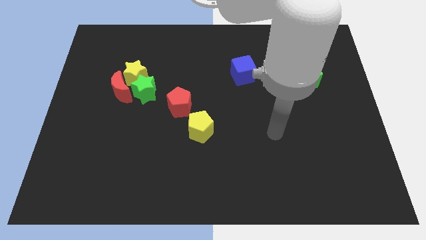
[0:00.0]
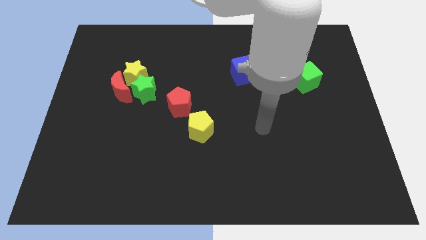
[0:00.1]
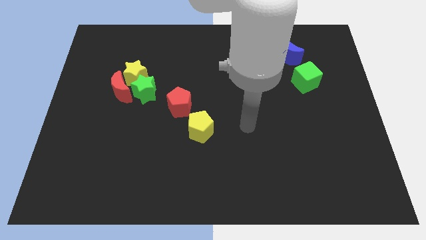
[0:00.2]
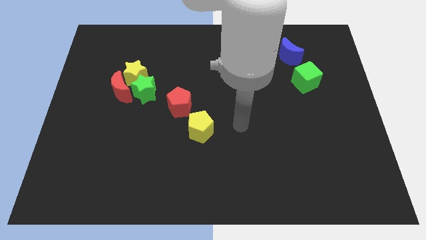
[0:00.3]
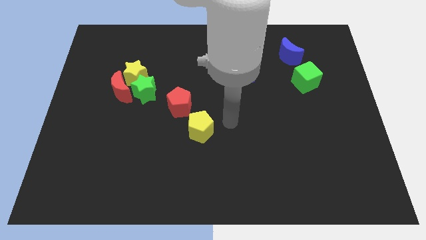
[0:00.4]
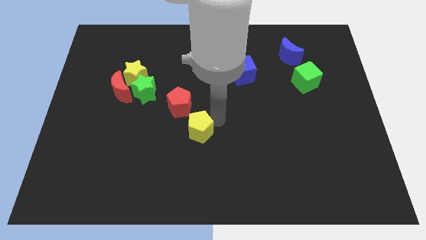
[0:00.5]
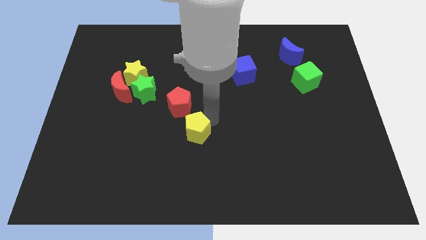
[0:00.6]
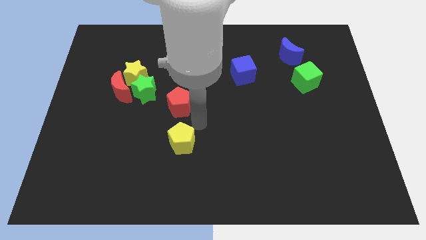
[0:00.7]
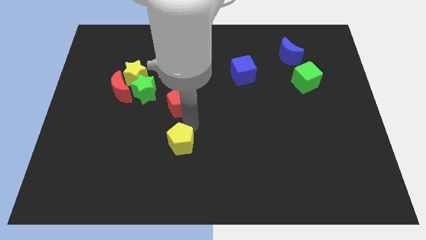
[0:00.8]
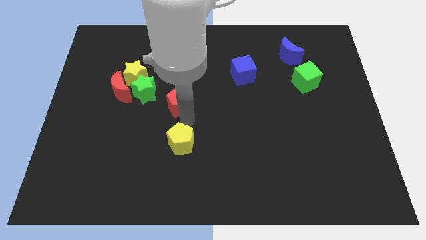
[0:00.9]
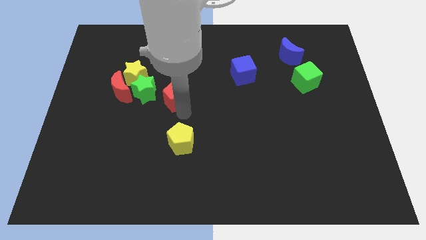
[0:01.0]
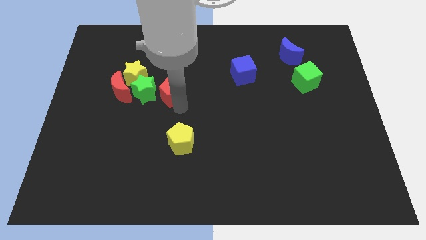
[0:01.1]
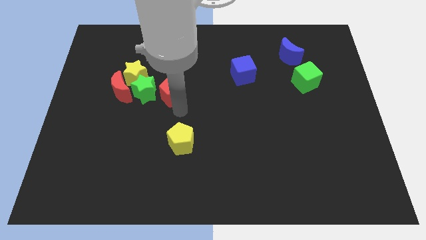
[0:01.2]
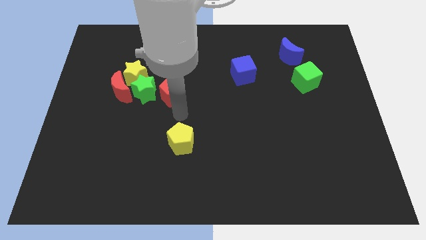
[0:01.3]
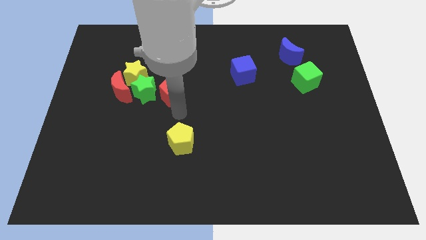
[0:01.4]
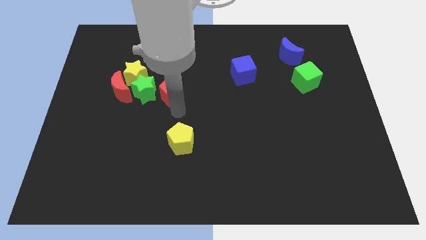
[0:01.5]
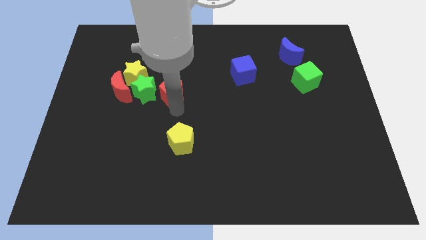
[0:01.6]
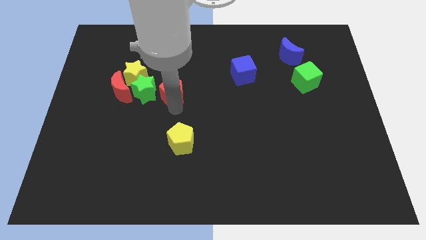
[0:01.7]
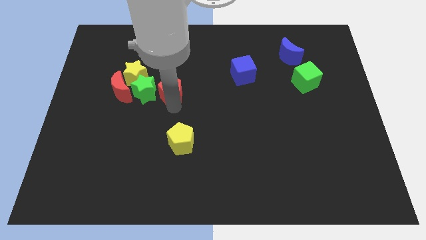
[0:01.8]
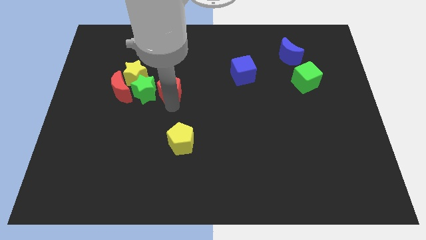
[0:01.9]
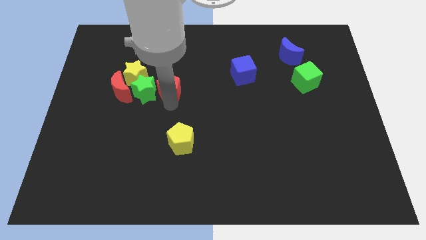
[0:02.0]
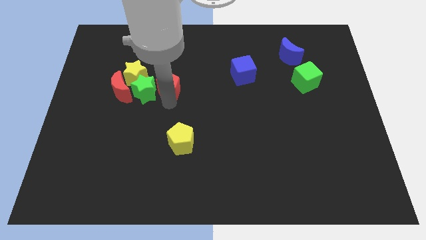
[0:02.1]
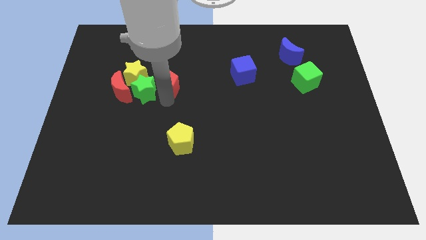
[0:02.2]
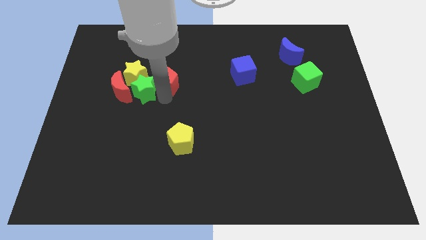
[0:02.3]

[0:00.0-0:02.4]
slightly move the red pentagon up and left

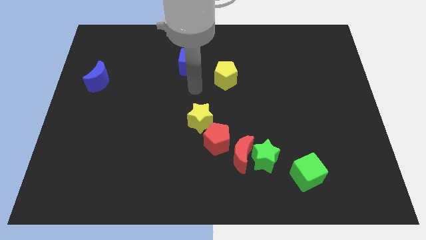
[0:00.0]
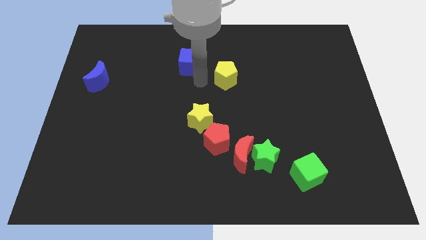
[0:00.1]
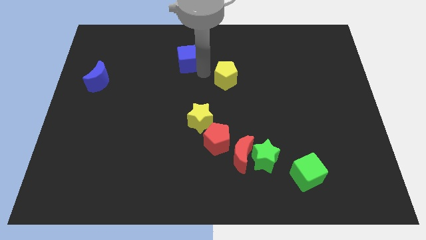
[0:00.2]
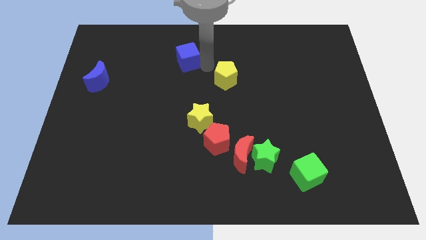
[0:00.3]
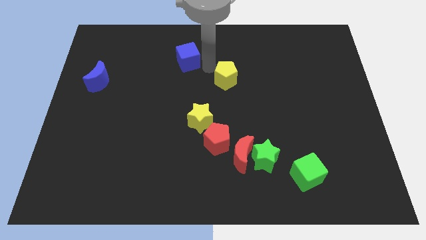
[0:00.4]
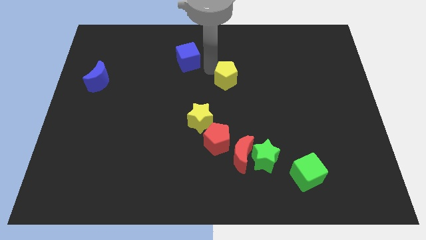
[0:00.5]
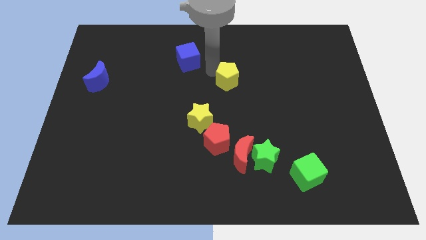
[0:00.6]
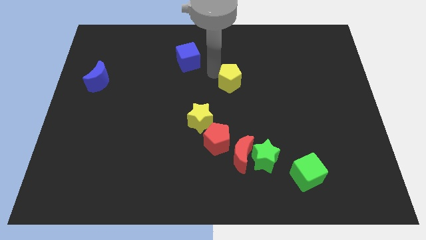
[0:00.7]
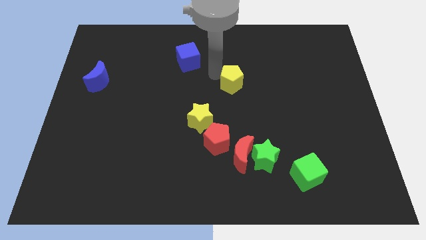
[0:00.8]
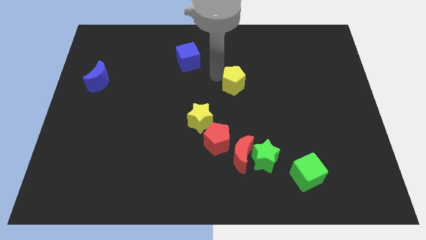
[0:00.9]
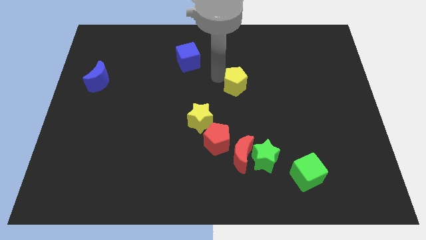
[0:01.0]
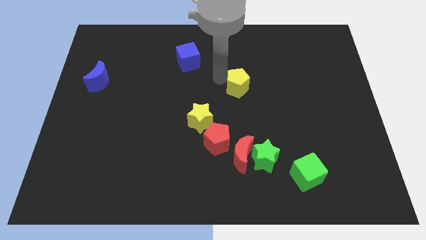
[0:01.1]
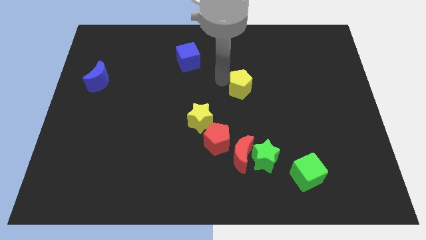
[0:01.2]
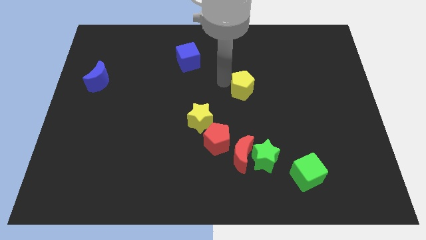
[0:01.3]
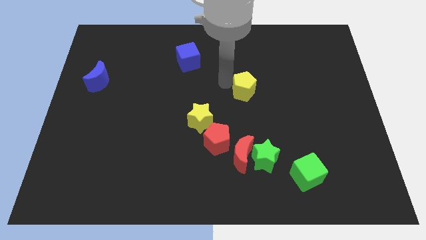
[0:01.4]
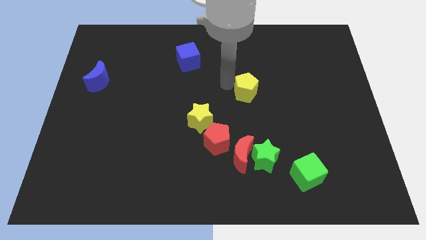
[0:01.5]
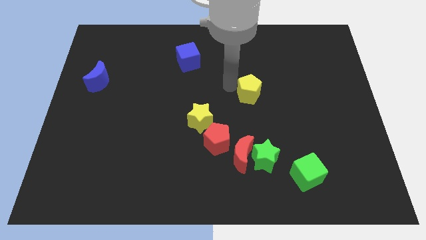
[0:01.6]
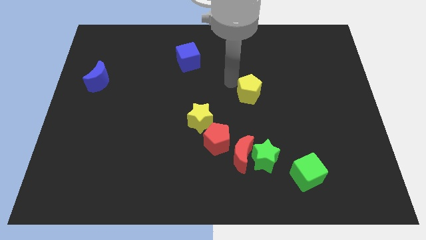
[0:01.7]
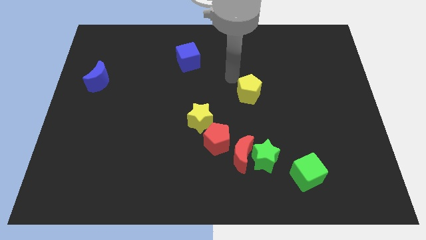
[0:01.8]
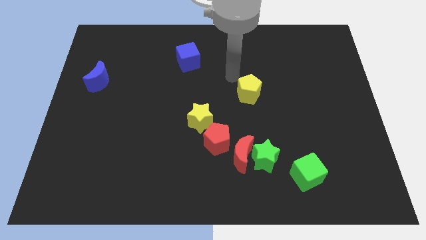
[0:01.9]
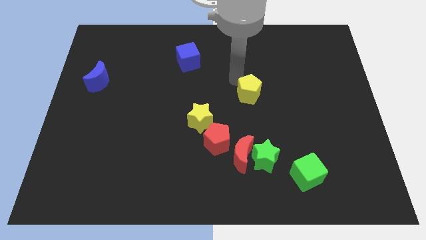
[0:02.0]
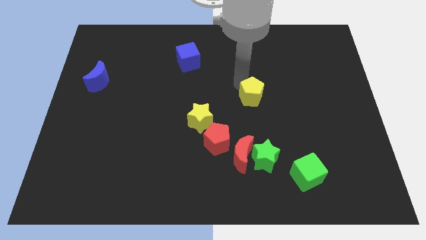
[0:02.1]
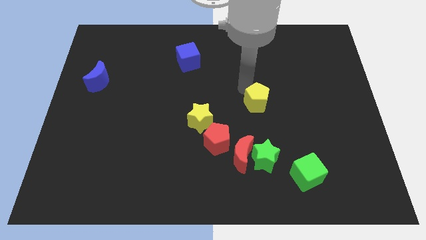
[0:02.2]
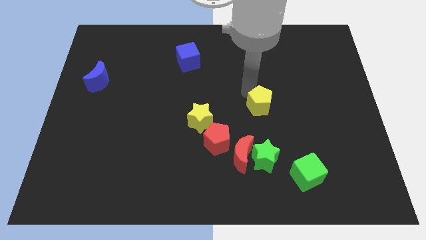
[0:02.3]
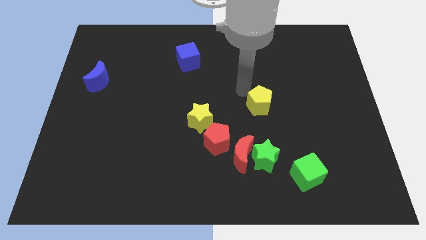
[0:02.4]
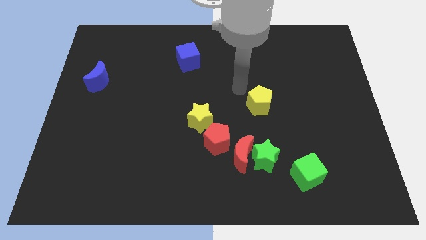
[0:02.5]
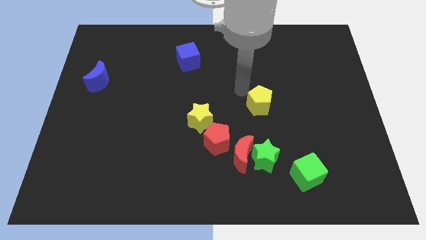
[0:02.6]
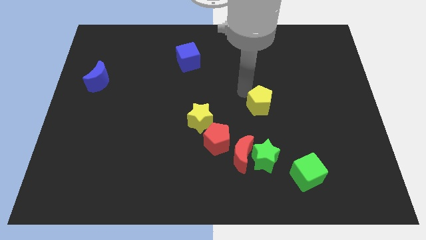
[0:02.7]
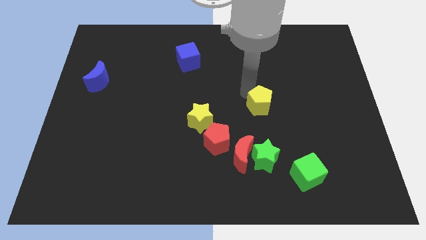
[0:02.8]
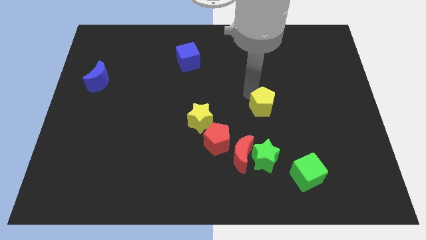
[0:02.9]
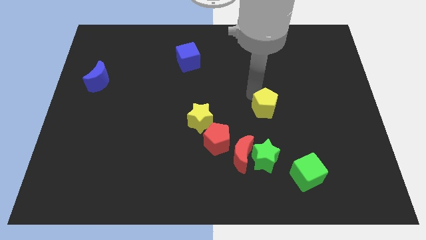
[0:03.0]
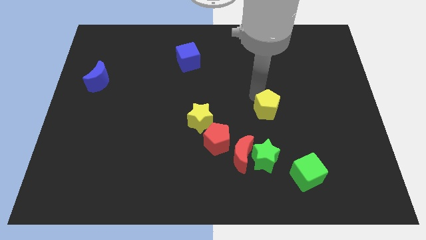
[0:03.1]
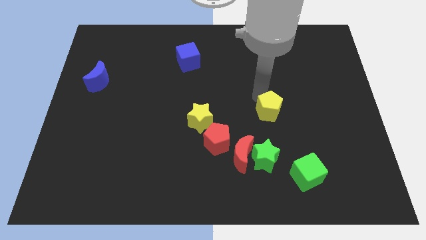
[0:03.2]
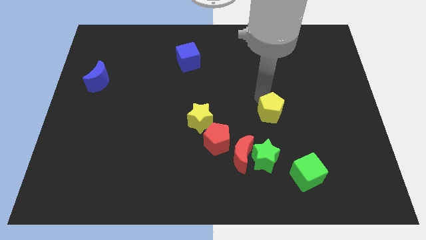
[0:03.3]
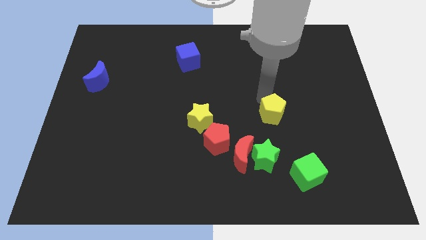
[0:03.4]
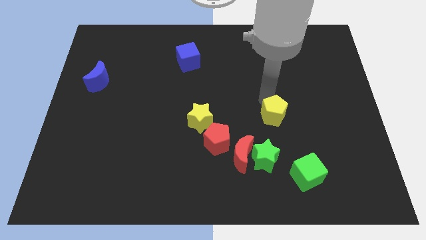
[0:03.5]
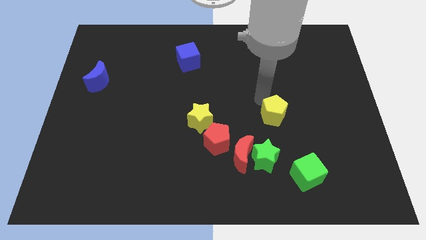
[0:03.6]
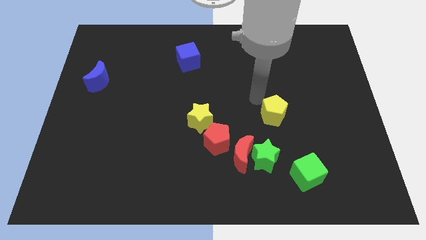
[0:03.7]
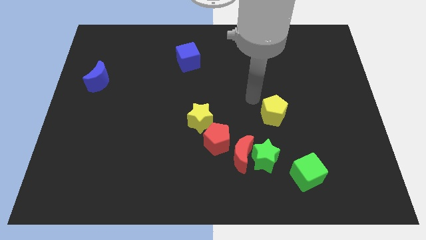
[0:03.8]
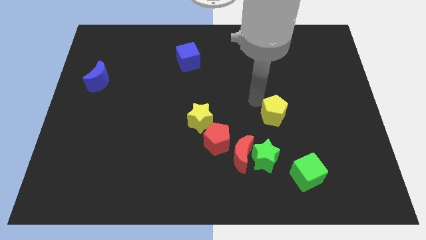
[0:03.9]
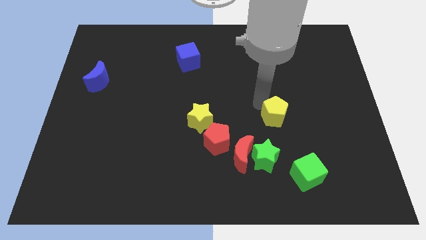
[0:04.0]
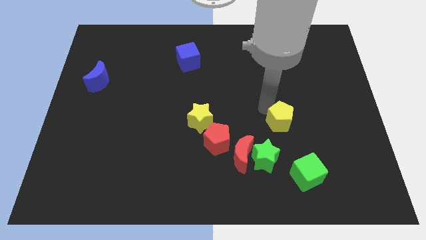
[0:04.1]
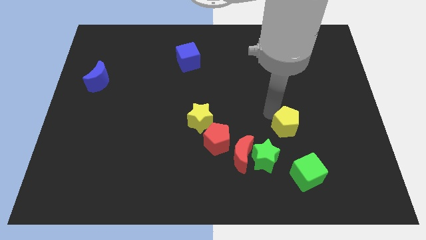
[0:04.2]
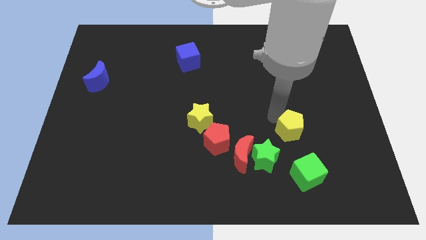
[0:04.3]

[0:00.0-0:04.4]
slide the yellow pentagon diagonally downwards and to the right

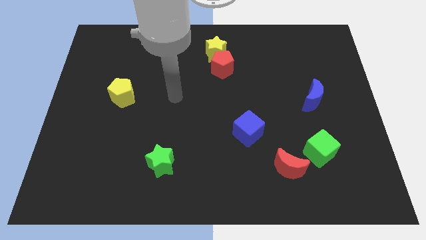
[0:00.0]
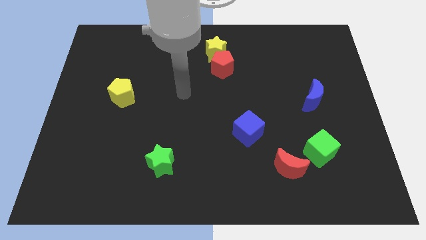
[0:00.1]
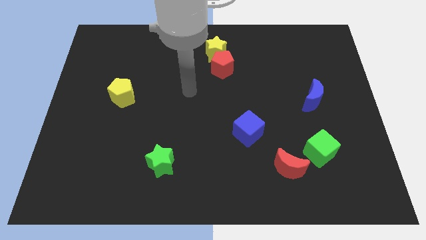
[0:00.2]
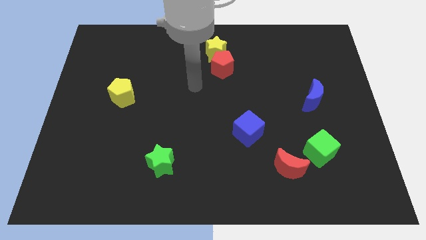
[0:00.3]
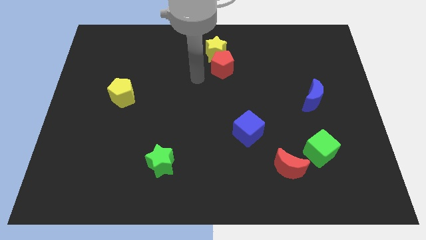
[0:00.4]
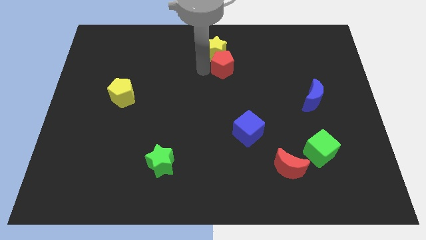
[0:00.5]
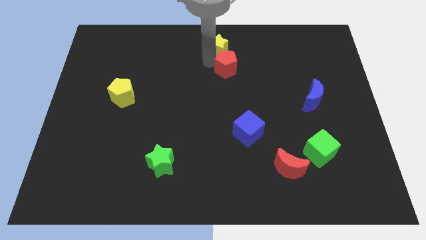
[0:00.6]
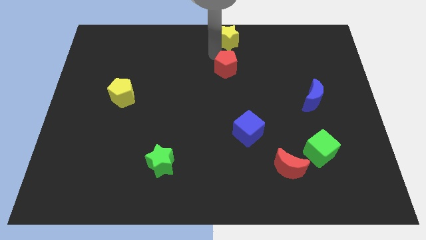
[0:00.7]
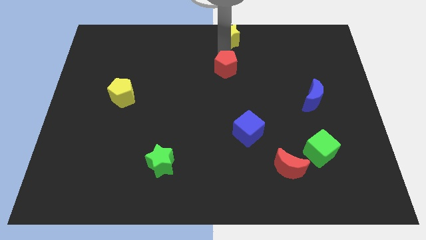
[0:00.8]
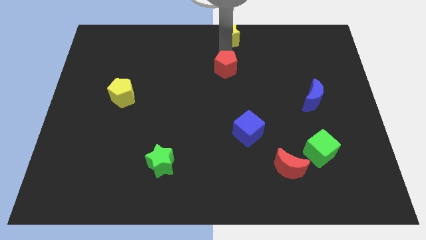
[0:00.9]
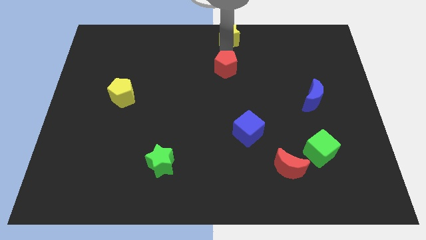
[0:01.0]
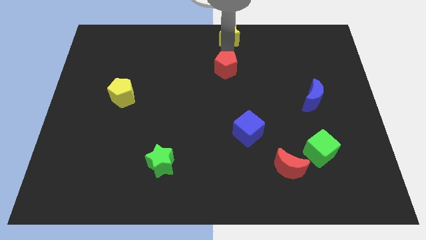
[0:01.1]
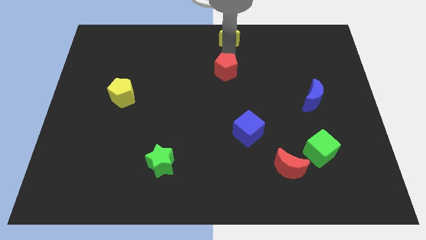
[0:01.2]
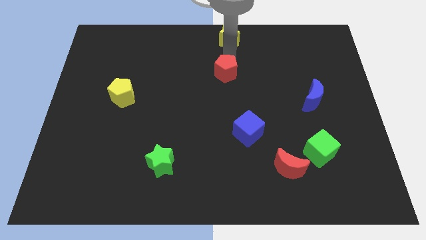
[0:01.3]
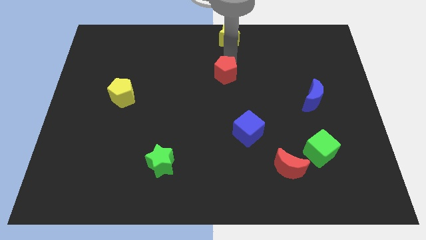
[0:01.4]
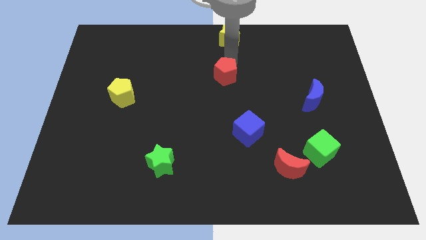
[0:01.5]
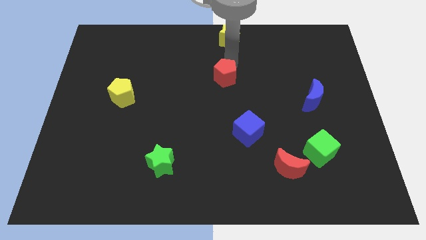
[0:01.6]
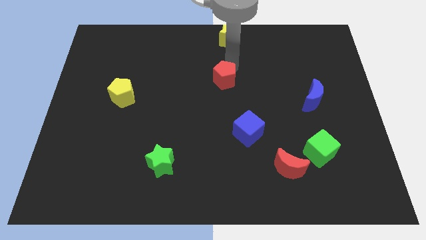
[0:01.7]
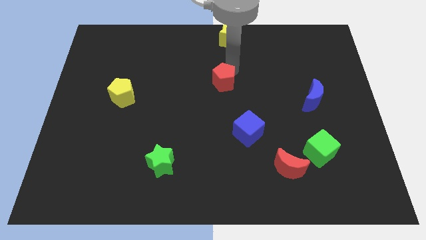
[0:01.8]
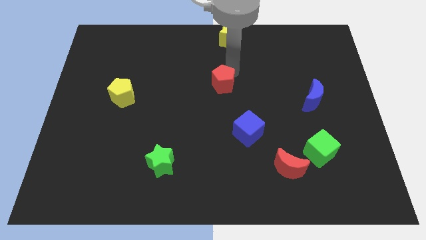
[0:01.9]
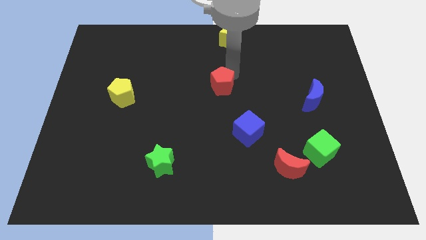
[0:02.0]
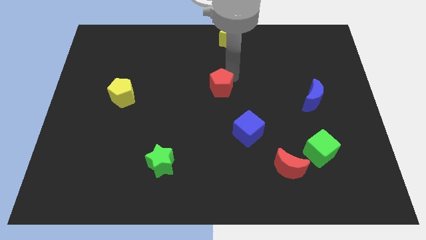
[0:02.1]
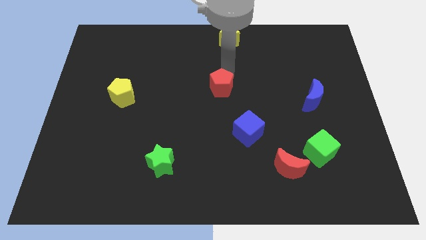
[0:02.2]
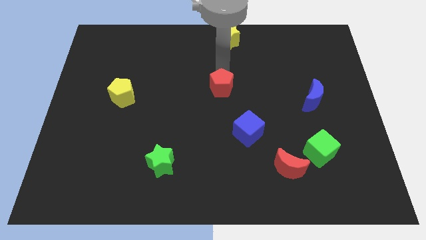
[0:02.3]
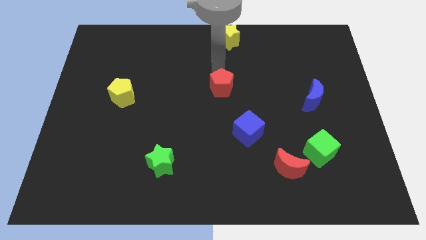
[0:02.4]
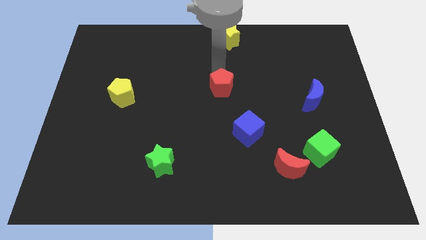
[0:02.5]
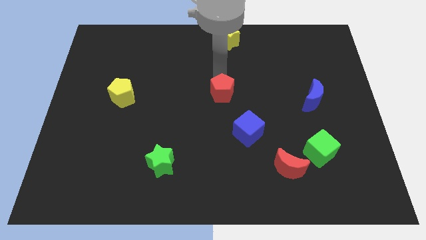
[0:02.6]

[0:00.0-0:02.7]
push the red pentagon somewhat down
